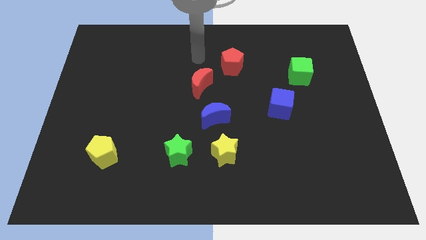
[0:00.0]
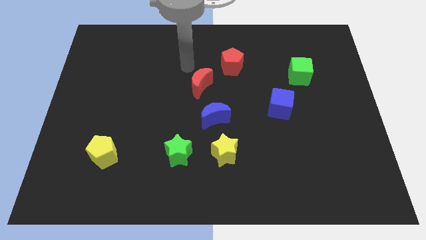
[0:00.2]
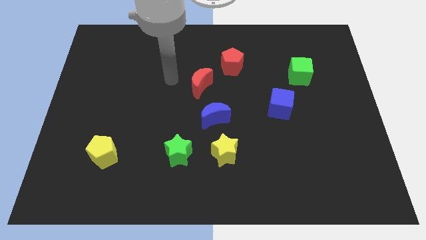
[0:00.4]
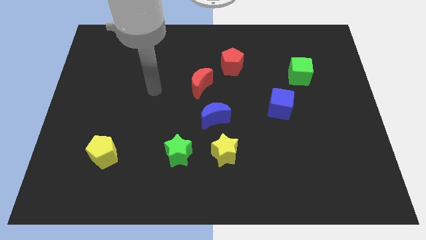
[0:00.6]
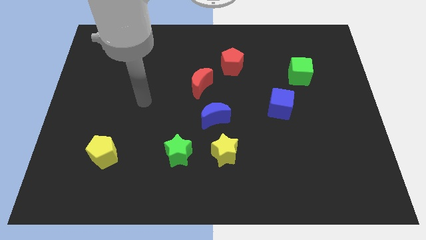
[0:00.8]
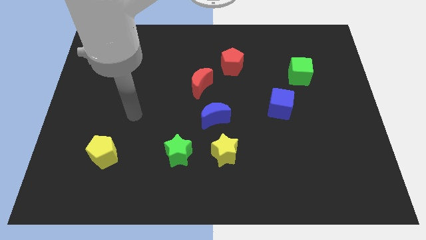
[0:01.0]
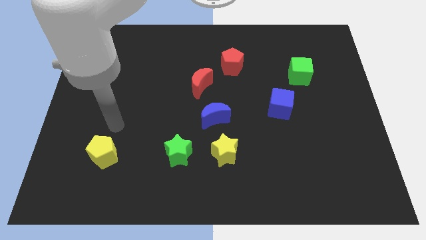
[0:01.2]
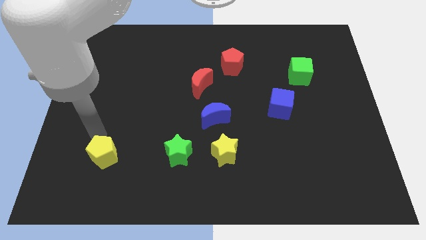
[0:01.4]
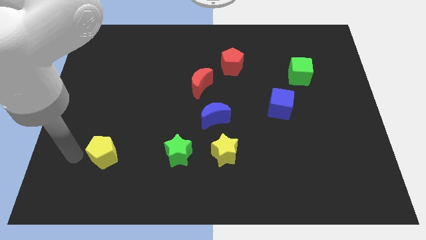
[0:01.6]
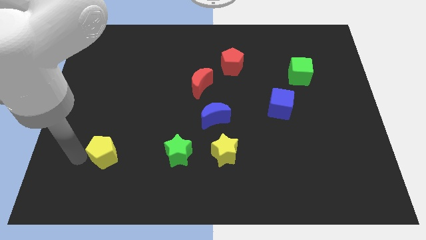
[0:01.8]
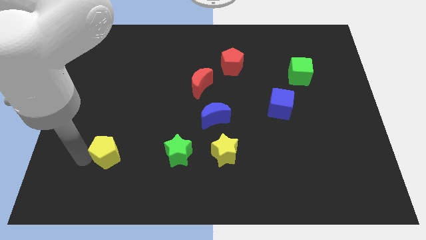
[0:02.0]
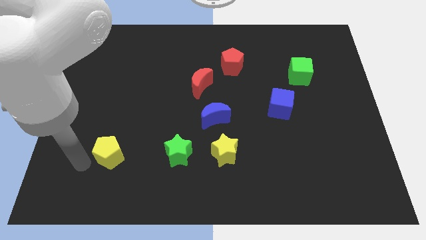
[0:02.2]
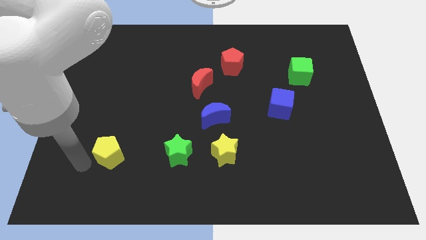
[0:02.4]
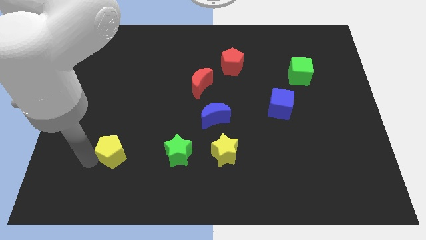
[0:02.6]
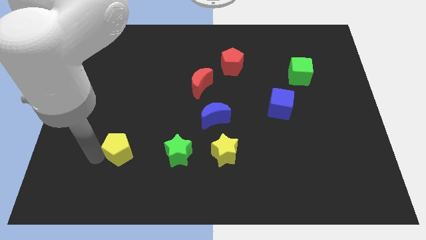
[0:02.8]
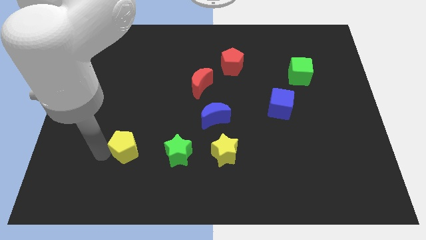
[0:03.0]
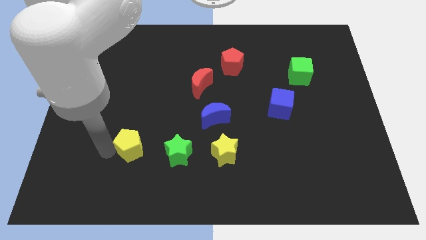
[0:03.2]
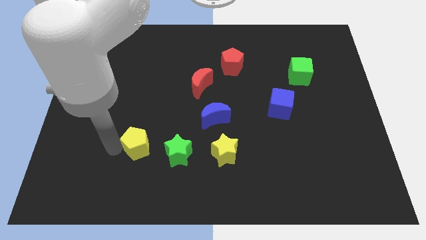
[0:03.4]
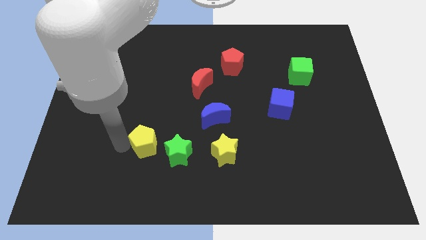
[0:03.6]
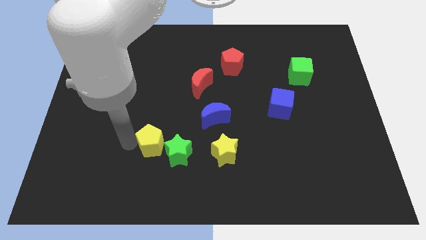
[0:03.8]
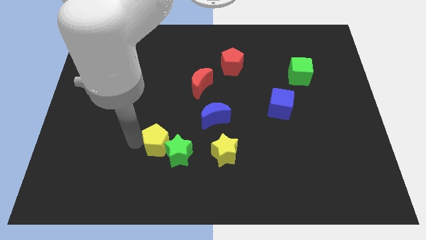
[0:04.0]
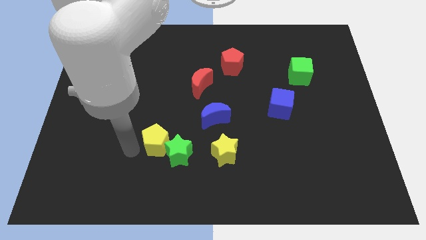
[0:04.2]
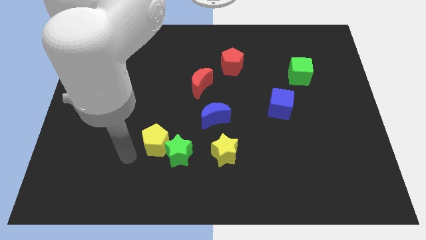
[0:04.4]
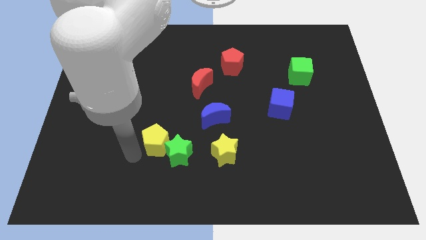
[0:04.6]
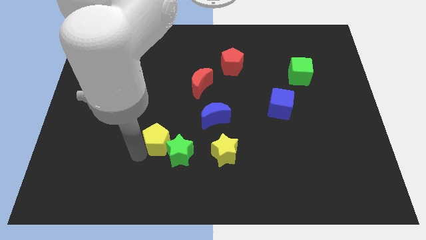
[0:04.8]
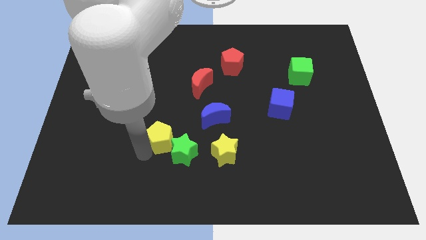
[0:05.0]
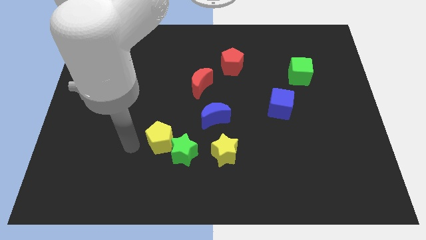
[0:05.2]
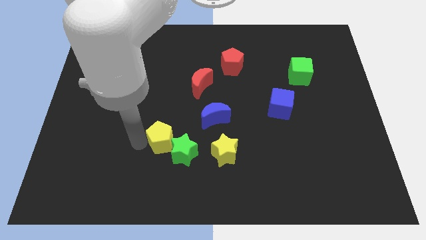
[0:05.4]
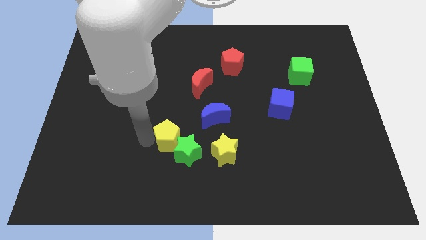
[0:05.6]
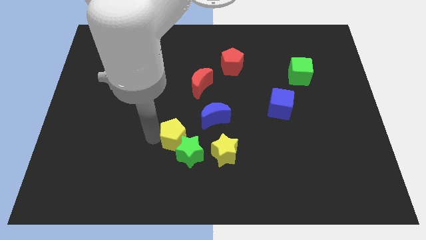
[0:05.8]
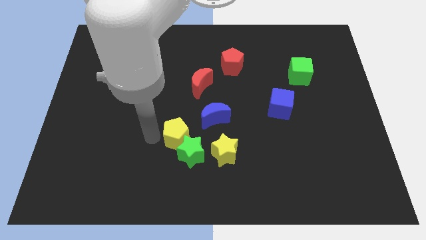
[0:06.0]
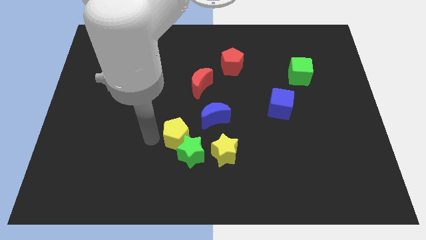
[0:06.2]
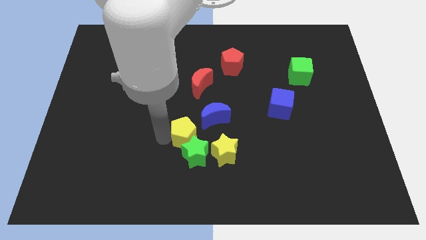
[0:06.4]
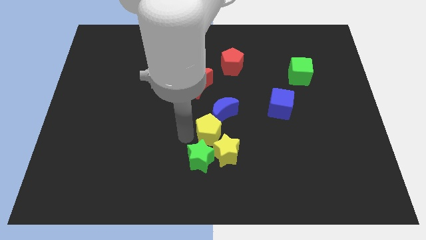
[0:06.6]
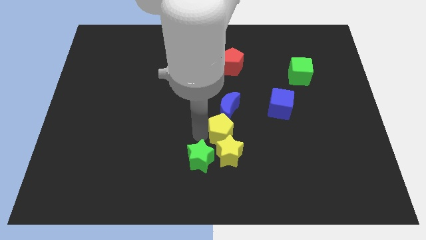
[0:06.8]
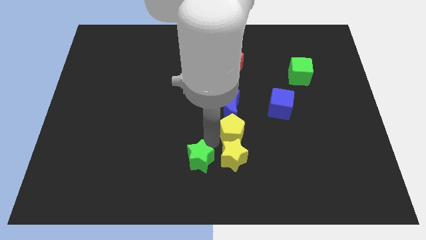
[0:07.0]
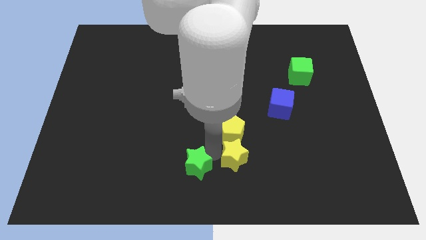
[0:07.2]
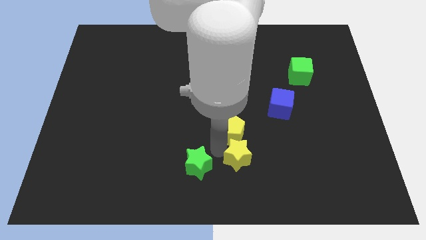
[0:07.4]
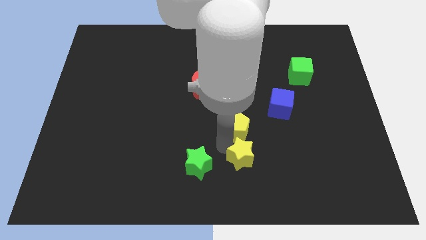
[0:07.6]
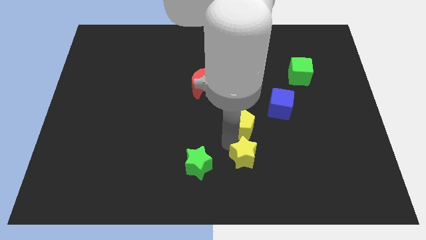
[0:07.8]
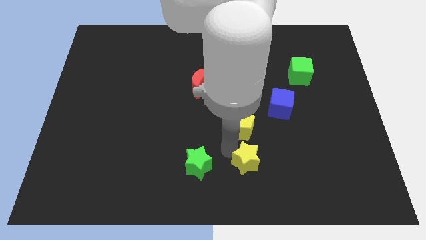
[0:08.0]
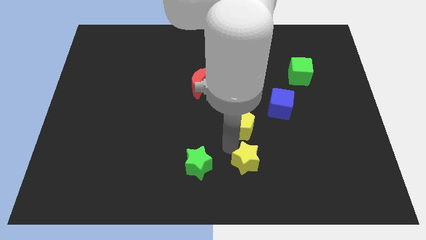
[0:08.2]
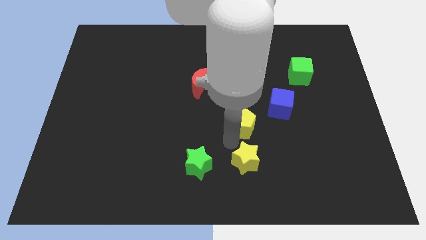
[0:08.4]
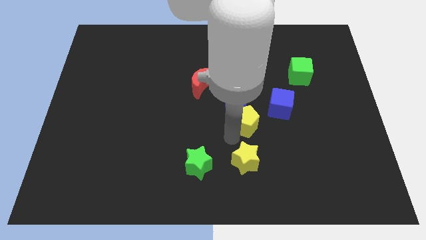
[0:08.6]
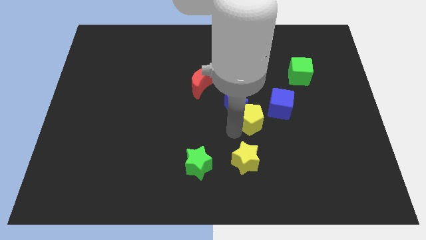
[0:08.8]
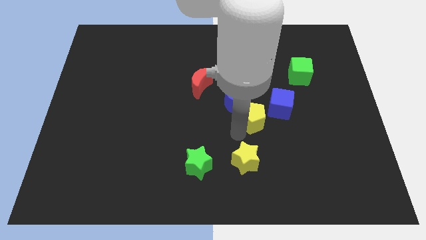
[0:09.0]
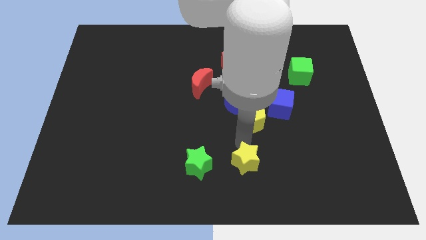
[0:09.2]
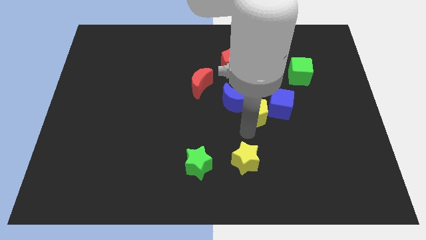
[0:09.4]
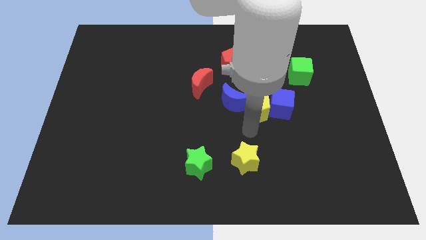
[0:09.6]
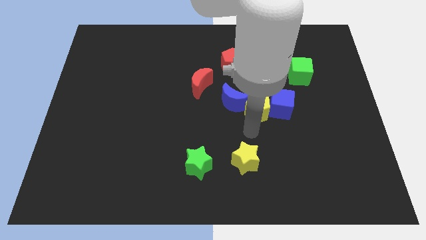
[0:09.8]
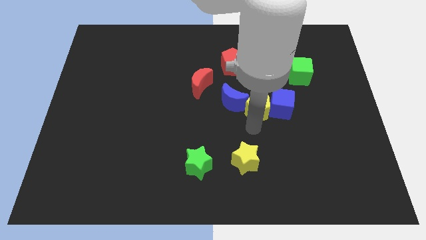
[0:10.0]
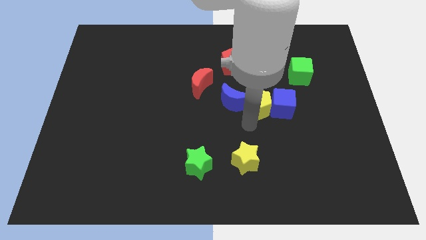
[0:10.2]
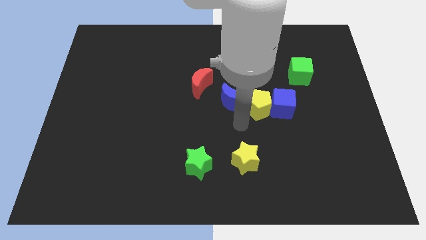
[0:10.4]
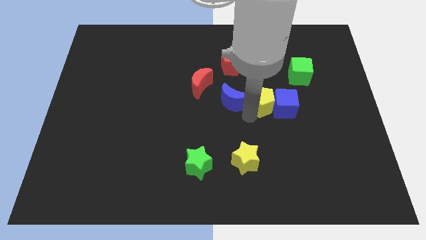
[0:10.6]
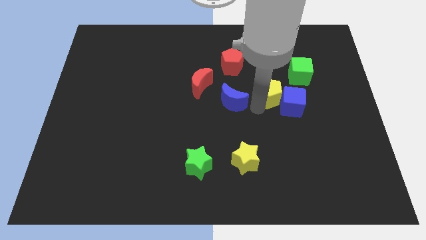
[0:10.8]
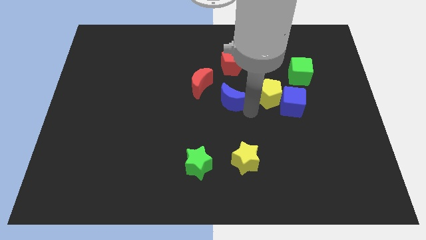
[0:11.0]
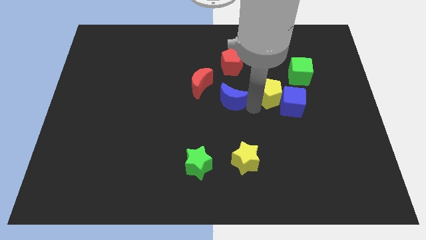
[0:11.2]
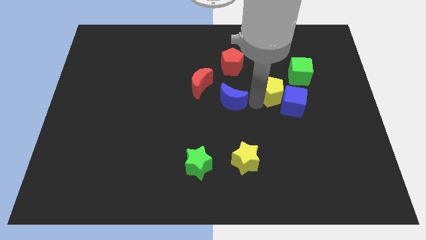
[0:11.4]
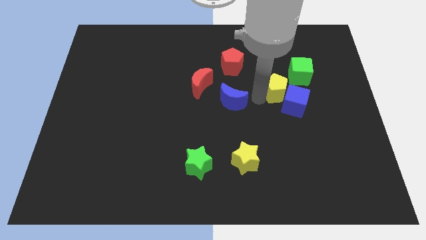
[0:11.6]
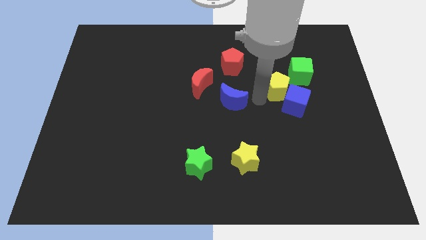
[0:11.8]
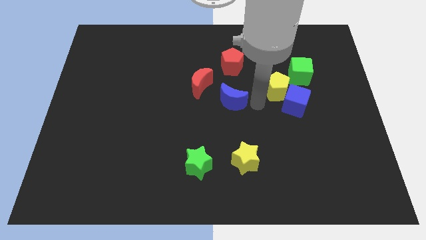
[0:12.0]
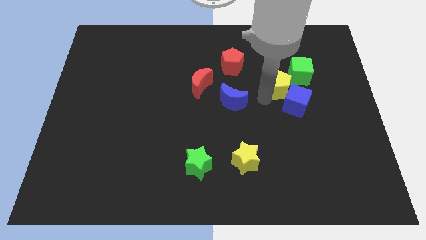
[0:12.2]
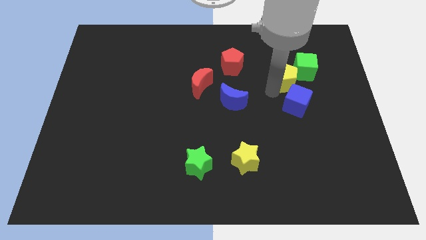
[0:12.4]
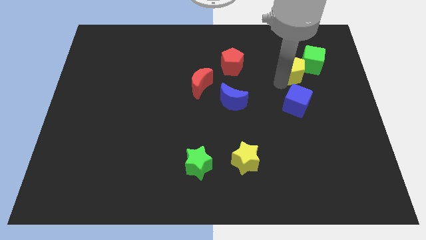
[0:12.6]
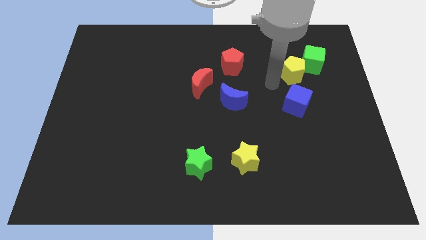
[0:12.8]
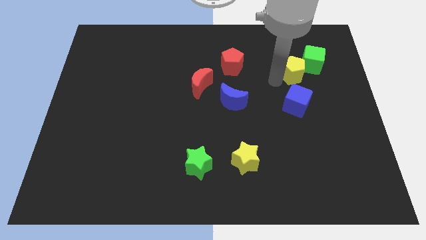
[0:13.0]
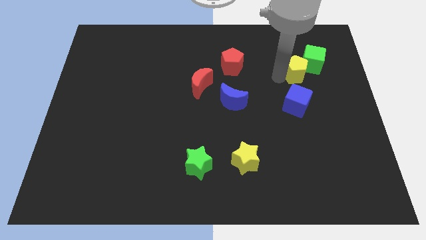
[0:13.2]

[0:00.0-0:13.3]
put the yellow pentagon towards the green cube

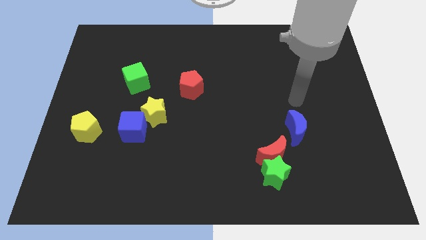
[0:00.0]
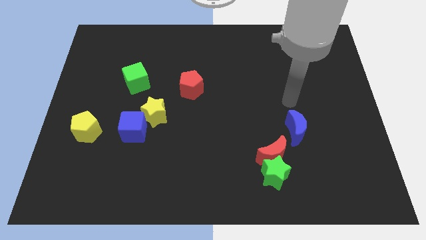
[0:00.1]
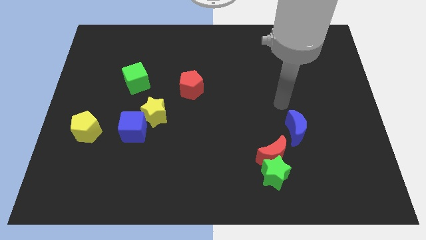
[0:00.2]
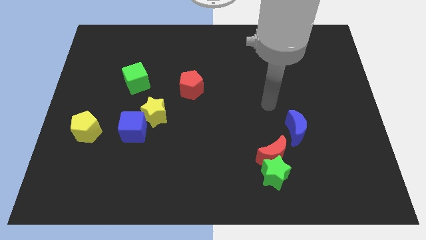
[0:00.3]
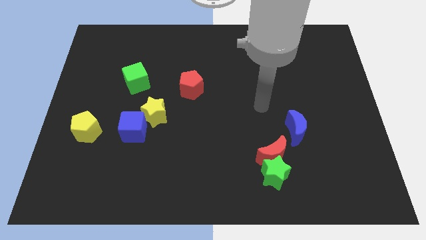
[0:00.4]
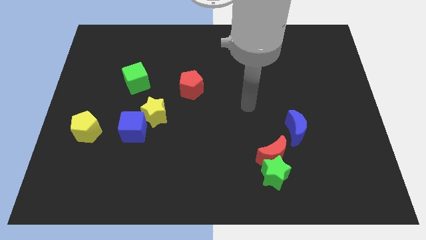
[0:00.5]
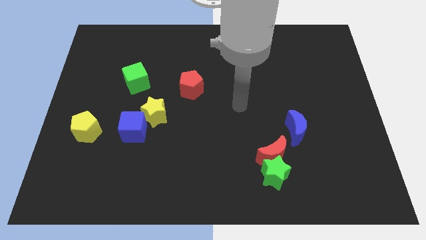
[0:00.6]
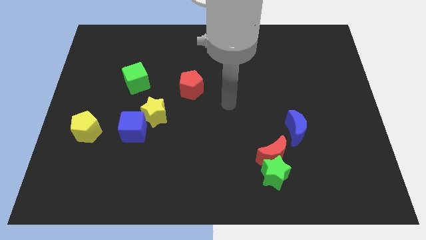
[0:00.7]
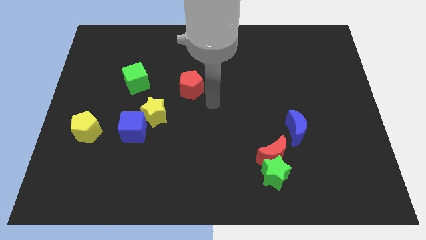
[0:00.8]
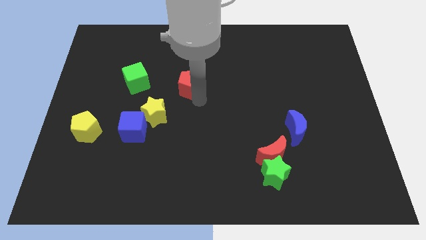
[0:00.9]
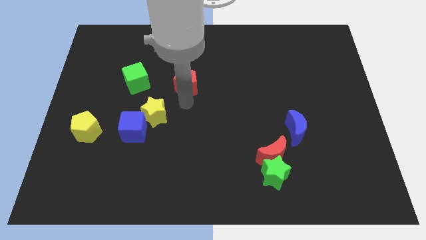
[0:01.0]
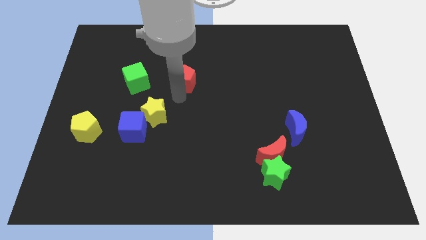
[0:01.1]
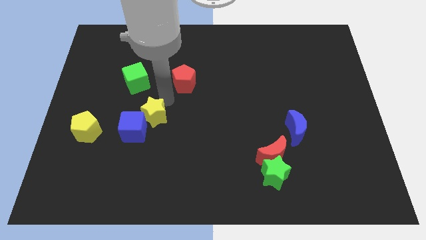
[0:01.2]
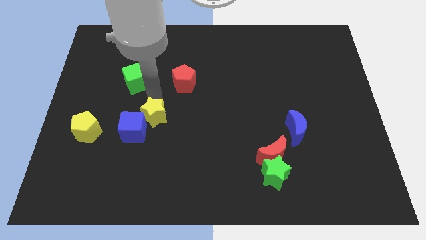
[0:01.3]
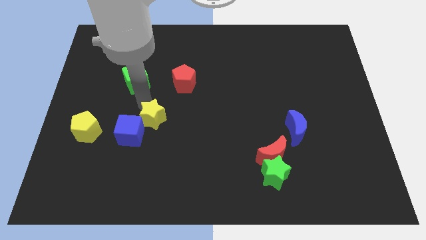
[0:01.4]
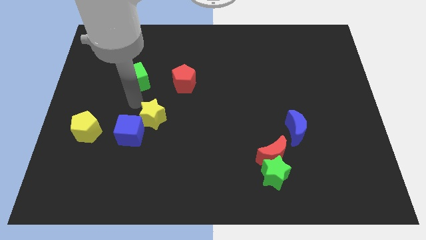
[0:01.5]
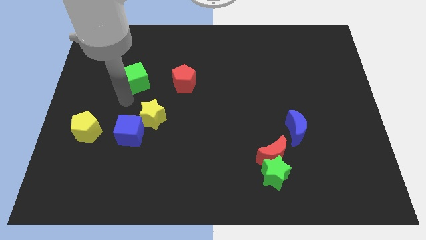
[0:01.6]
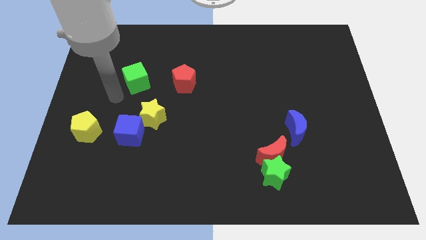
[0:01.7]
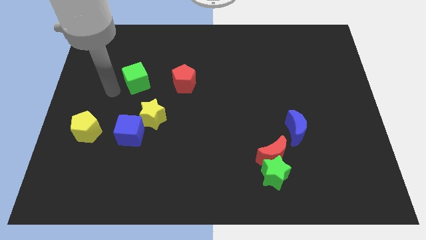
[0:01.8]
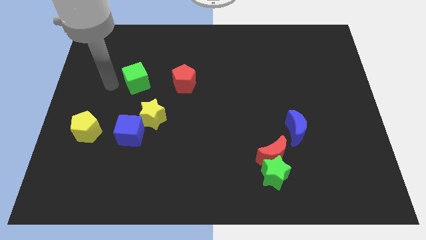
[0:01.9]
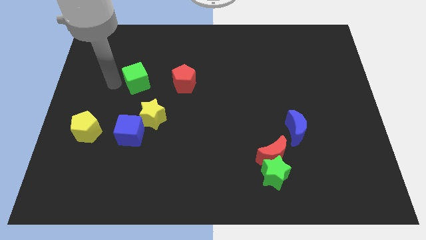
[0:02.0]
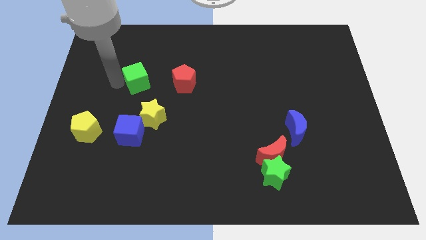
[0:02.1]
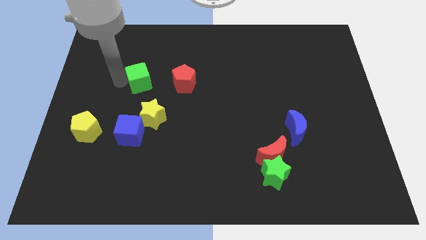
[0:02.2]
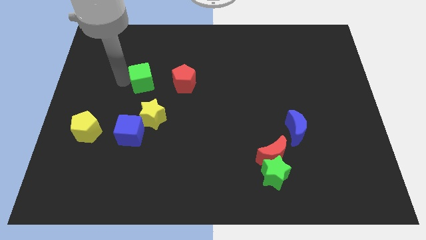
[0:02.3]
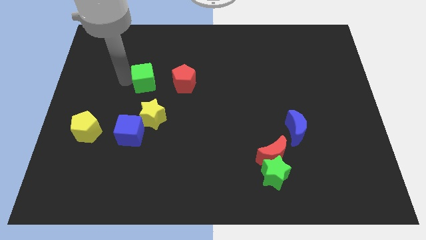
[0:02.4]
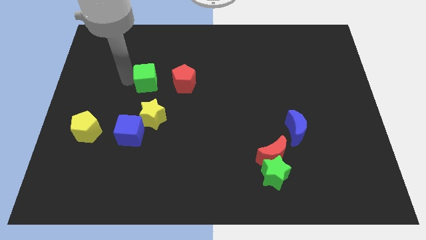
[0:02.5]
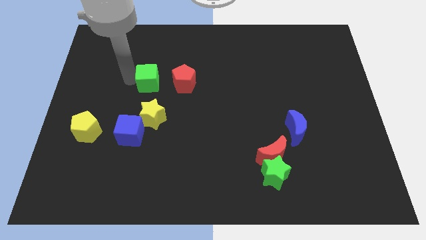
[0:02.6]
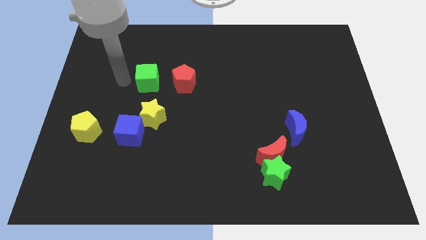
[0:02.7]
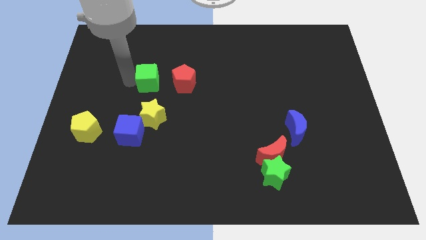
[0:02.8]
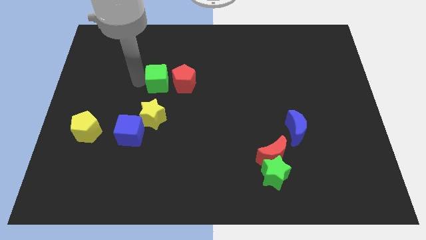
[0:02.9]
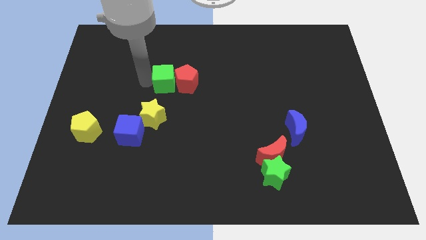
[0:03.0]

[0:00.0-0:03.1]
slide the green cube towards the red pentagon
